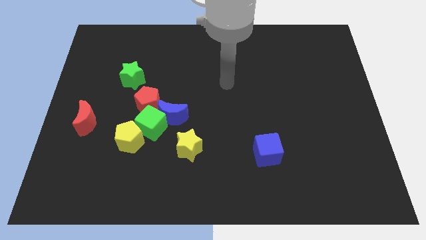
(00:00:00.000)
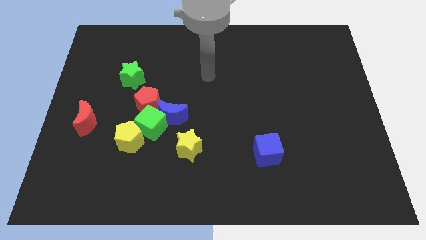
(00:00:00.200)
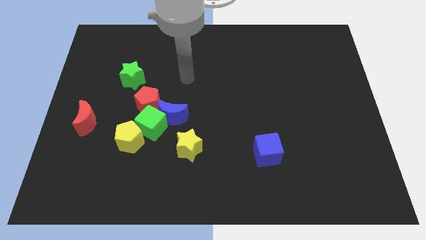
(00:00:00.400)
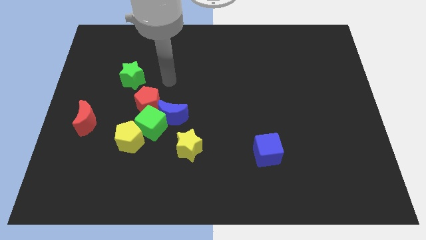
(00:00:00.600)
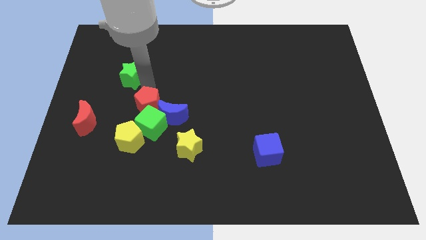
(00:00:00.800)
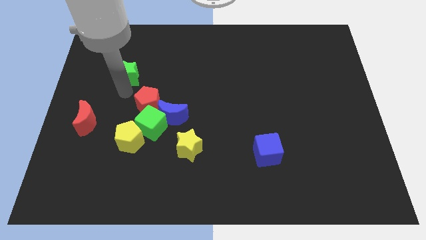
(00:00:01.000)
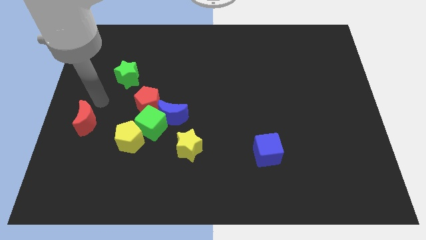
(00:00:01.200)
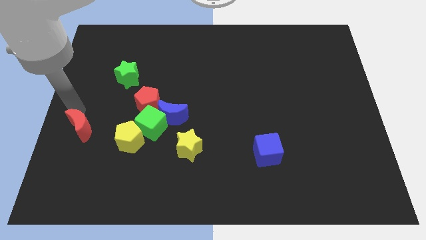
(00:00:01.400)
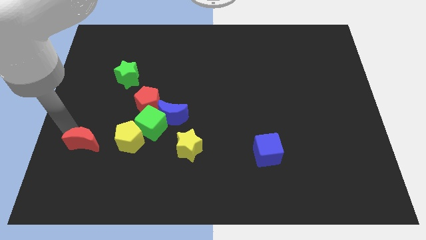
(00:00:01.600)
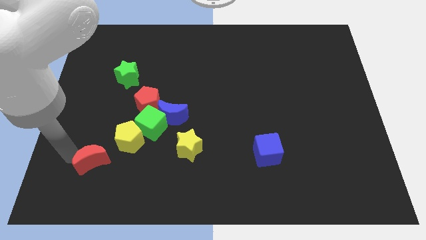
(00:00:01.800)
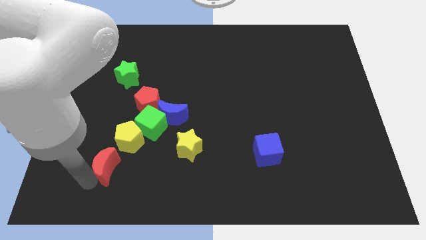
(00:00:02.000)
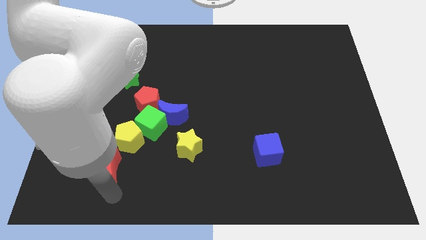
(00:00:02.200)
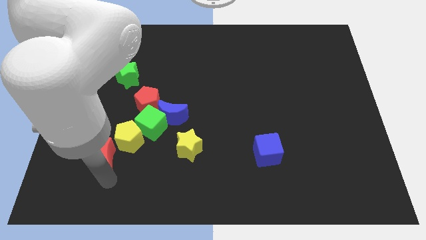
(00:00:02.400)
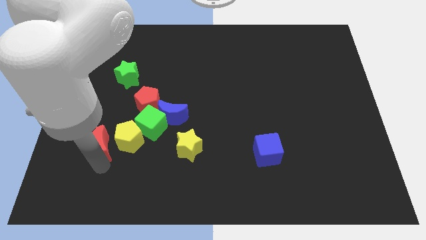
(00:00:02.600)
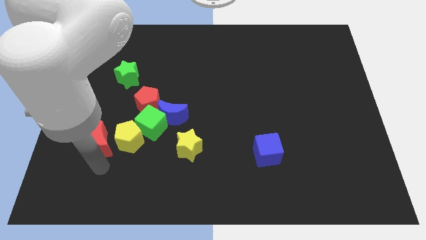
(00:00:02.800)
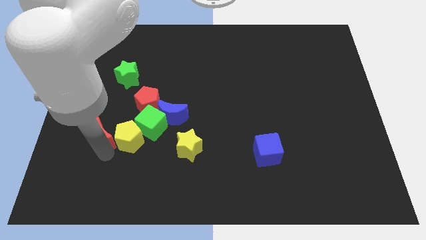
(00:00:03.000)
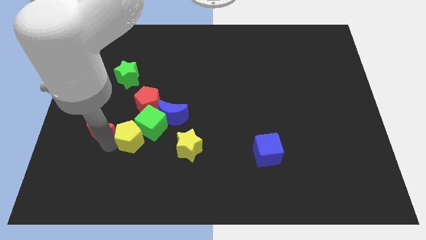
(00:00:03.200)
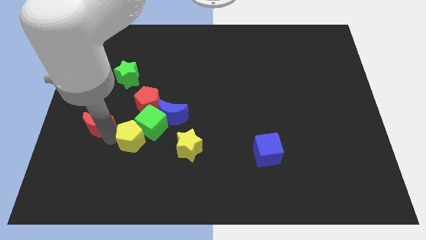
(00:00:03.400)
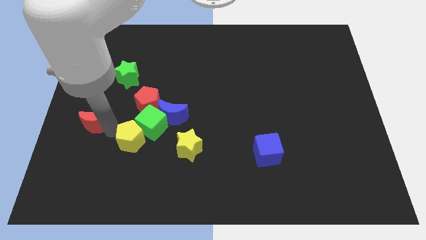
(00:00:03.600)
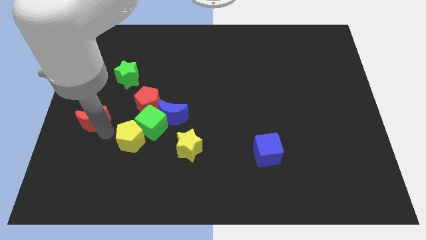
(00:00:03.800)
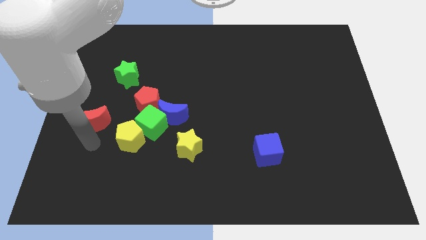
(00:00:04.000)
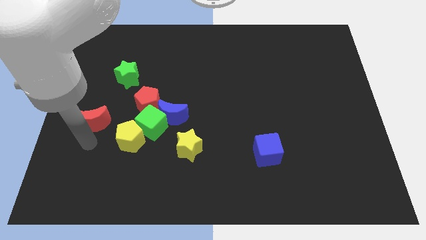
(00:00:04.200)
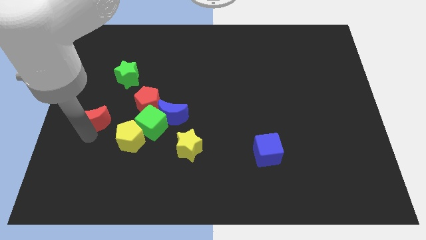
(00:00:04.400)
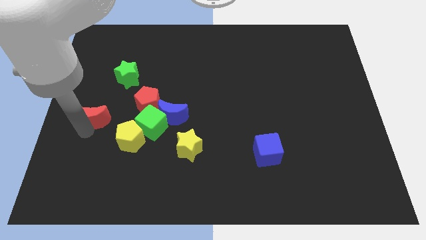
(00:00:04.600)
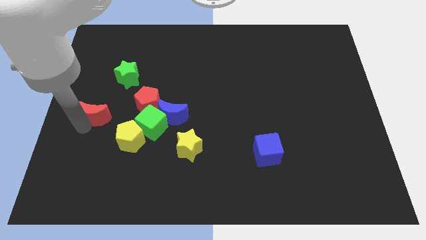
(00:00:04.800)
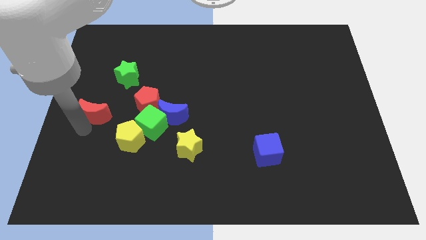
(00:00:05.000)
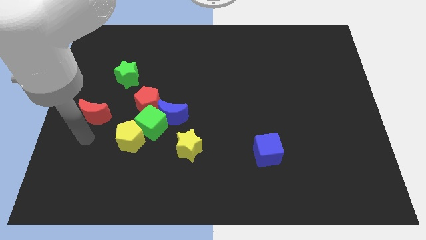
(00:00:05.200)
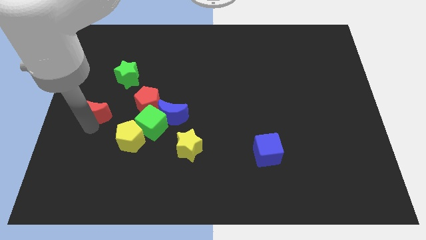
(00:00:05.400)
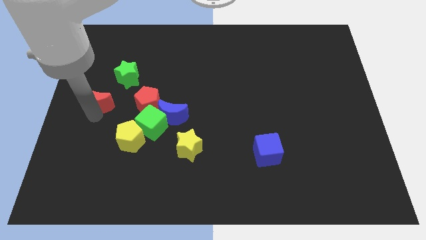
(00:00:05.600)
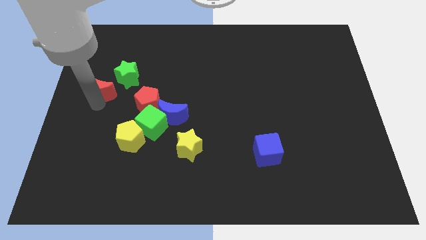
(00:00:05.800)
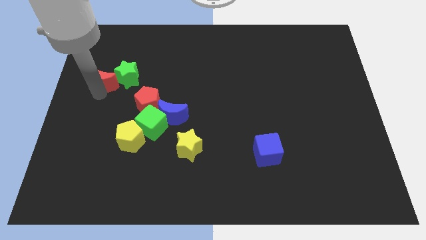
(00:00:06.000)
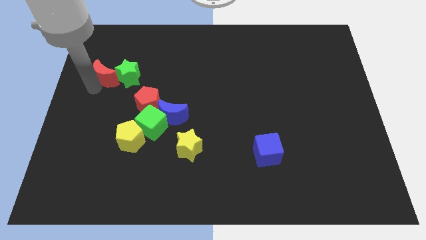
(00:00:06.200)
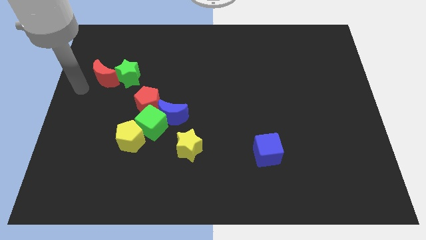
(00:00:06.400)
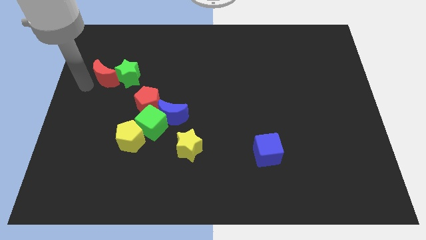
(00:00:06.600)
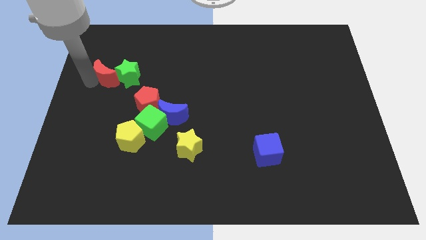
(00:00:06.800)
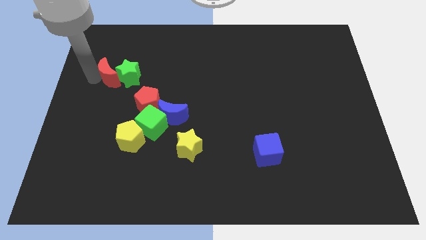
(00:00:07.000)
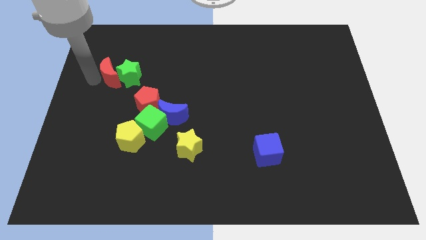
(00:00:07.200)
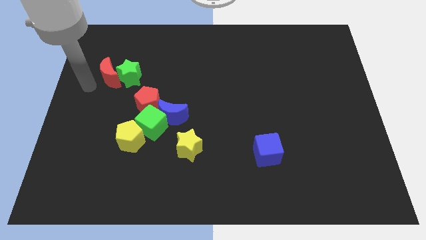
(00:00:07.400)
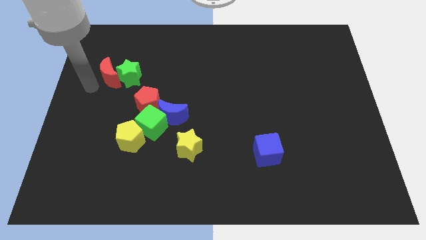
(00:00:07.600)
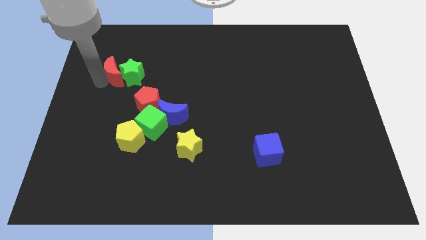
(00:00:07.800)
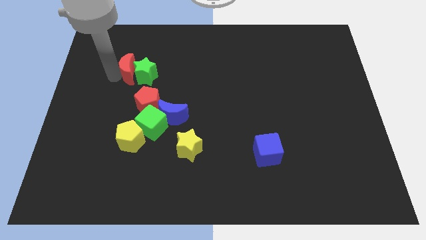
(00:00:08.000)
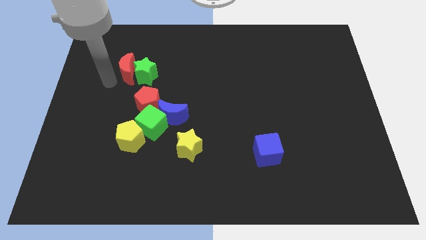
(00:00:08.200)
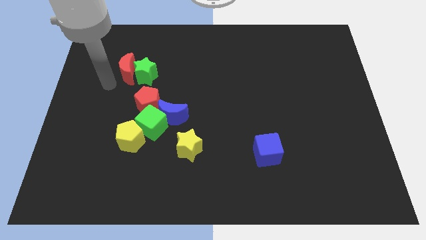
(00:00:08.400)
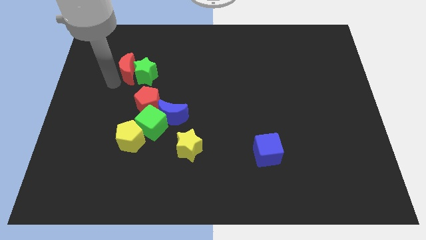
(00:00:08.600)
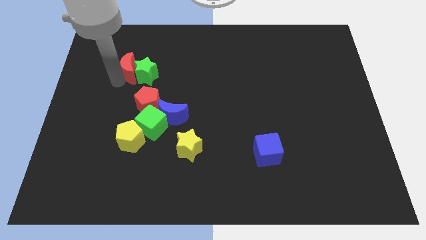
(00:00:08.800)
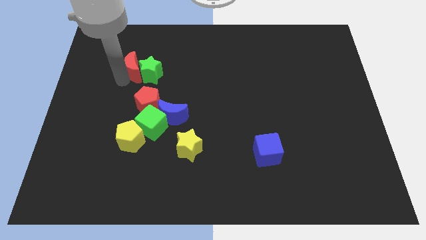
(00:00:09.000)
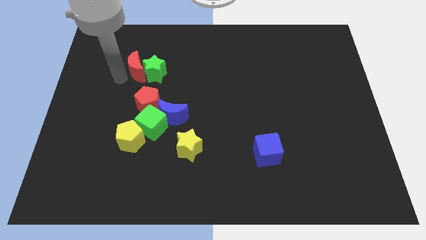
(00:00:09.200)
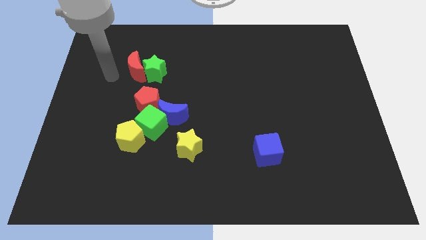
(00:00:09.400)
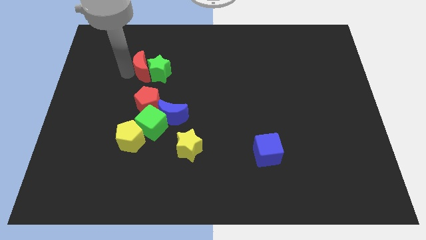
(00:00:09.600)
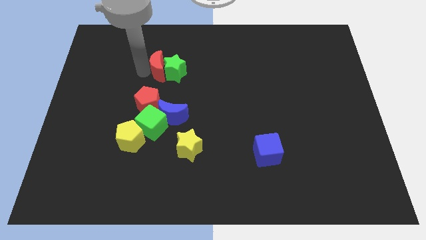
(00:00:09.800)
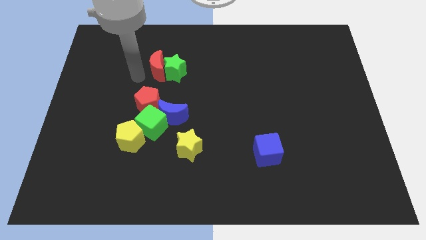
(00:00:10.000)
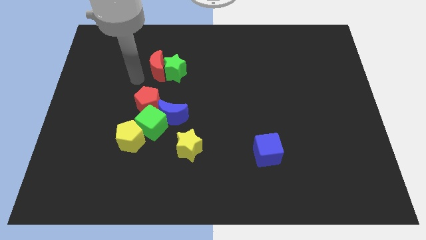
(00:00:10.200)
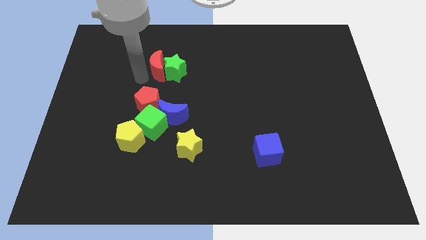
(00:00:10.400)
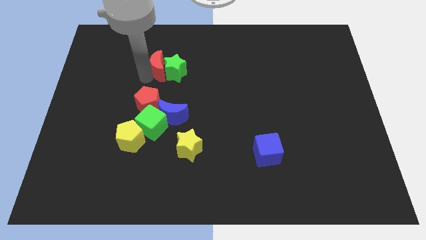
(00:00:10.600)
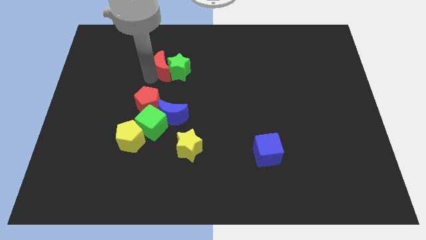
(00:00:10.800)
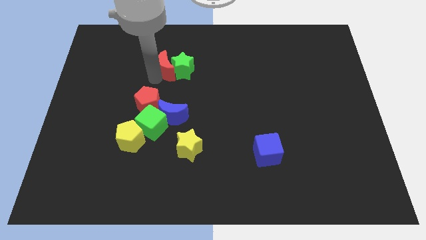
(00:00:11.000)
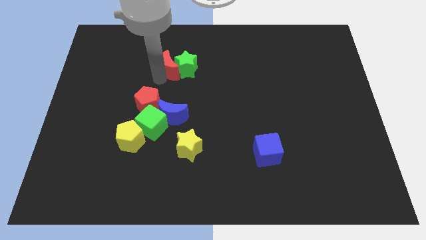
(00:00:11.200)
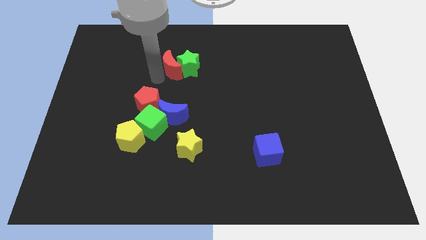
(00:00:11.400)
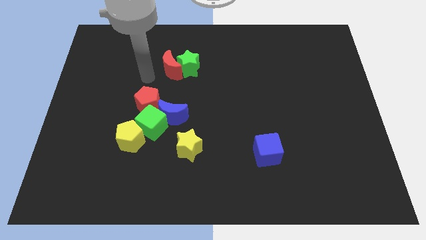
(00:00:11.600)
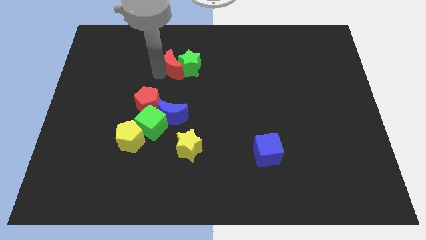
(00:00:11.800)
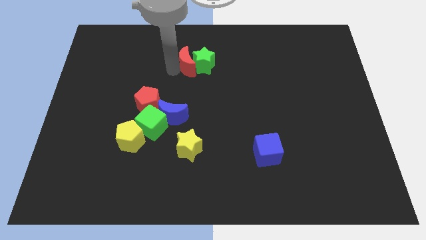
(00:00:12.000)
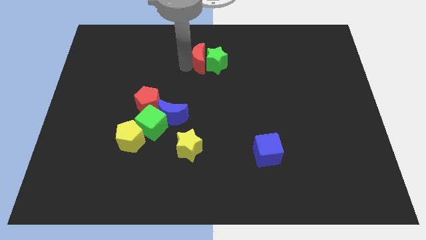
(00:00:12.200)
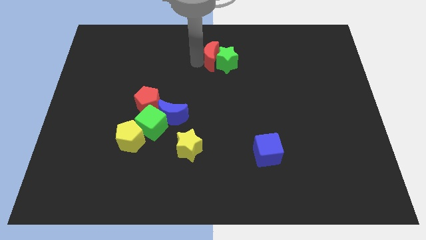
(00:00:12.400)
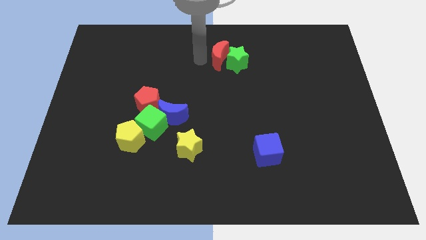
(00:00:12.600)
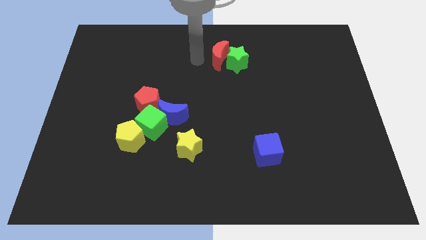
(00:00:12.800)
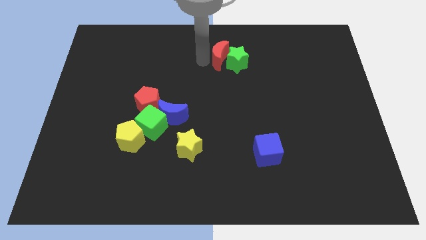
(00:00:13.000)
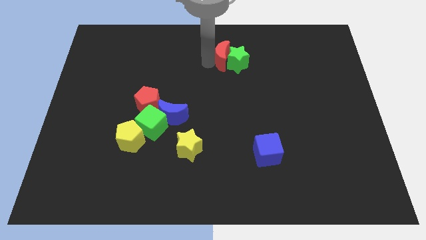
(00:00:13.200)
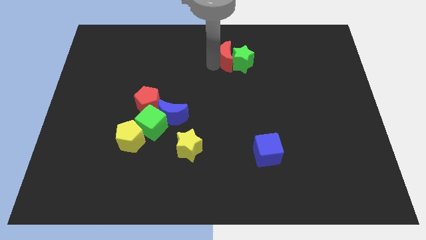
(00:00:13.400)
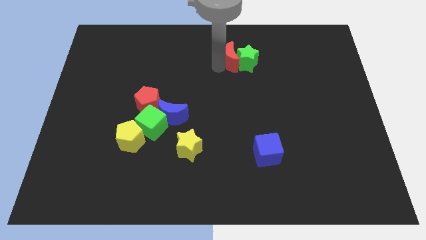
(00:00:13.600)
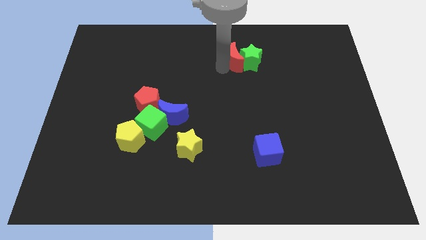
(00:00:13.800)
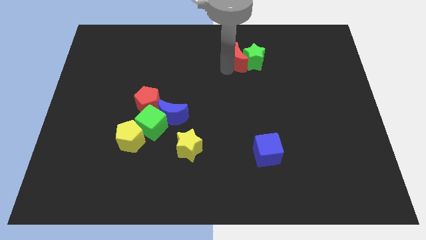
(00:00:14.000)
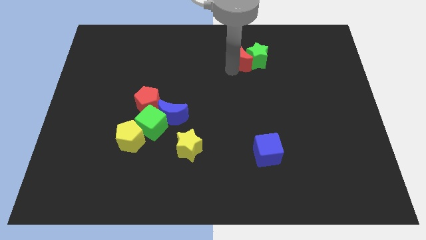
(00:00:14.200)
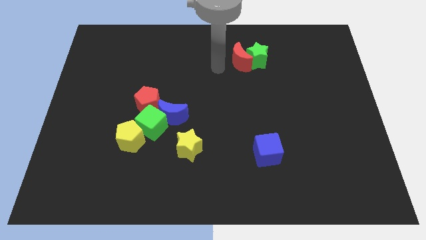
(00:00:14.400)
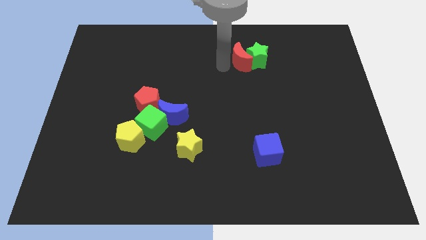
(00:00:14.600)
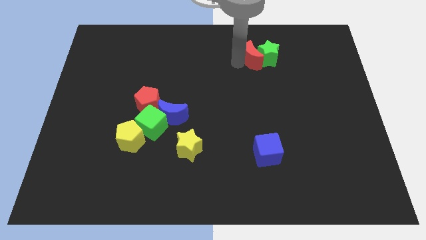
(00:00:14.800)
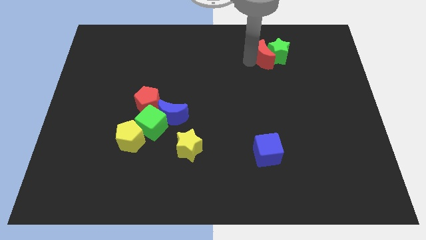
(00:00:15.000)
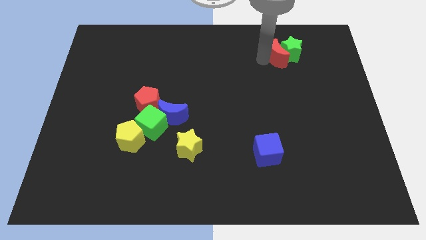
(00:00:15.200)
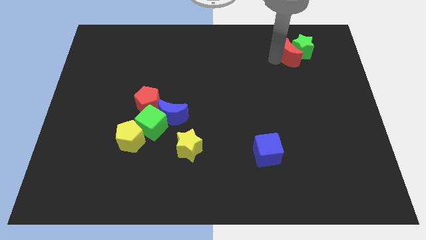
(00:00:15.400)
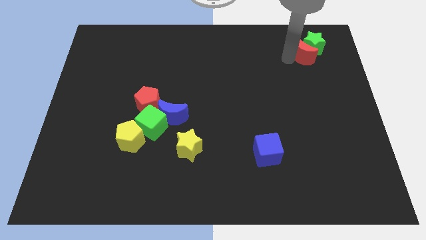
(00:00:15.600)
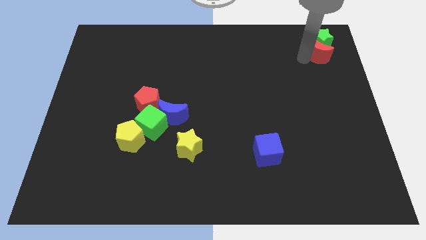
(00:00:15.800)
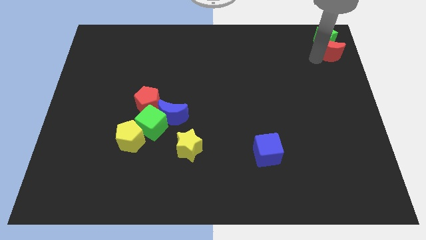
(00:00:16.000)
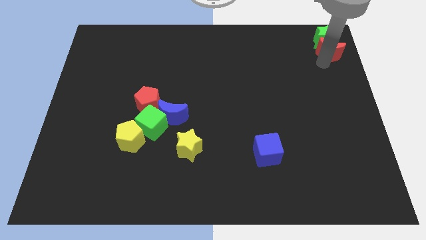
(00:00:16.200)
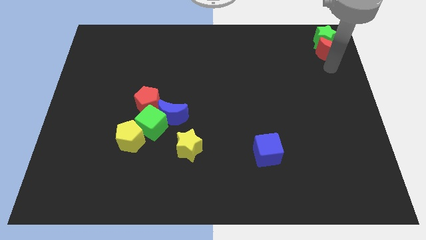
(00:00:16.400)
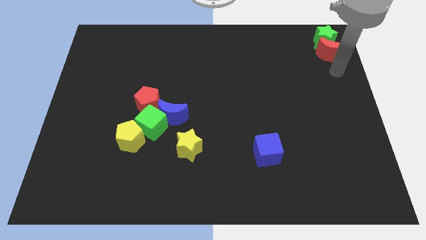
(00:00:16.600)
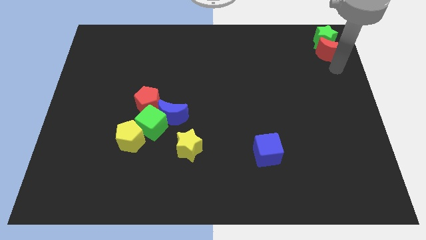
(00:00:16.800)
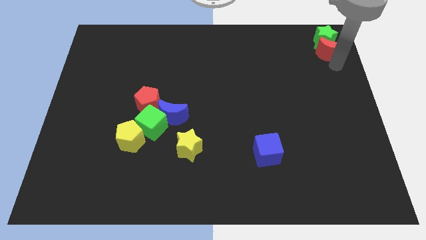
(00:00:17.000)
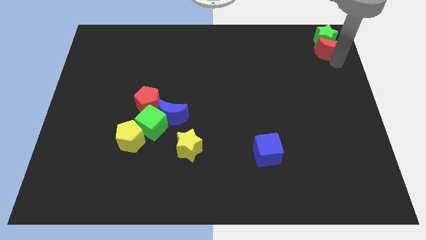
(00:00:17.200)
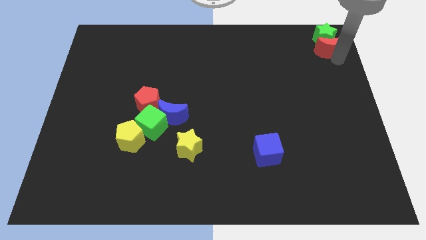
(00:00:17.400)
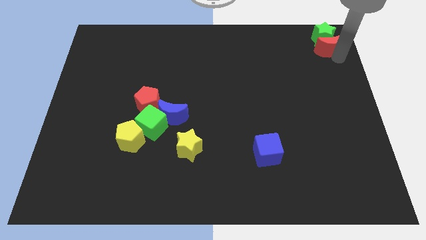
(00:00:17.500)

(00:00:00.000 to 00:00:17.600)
move the red moon to the top right corner
